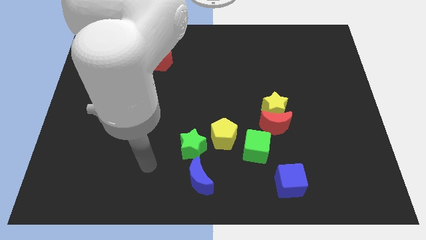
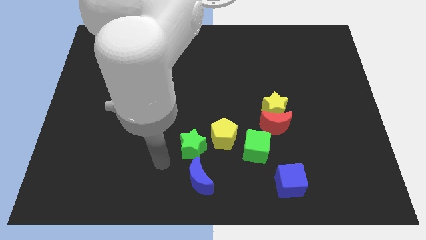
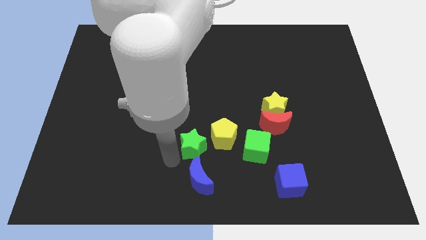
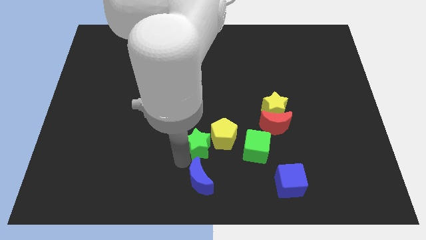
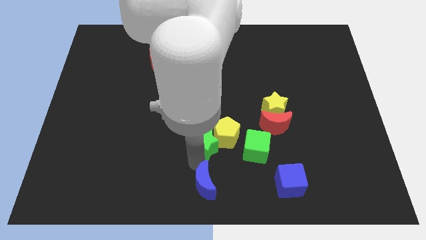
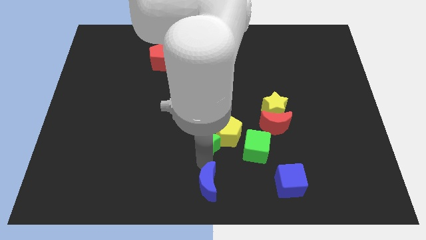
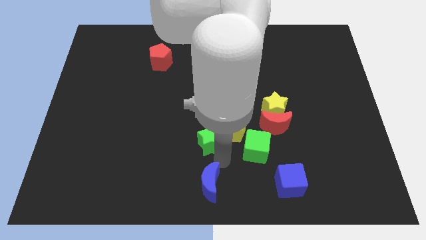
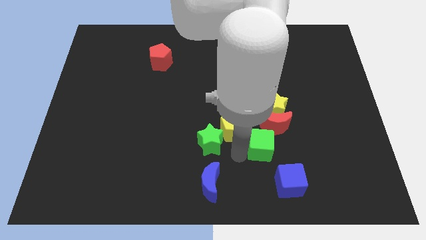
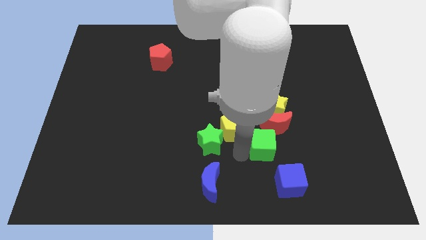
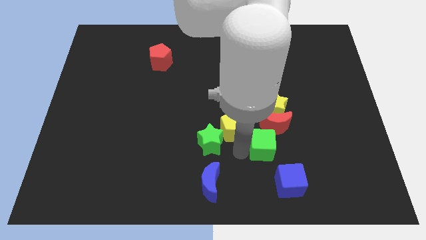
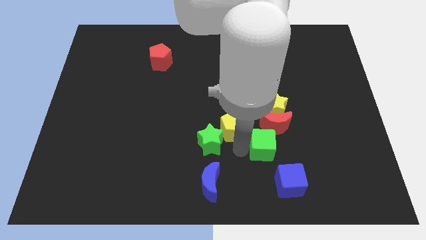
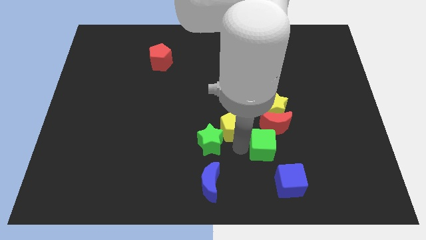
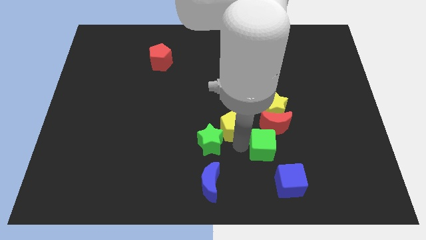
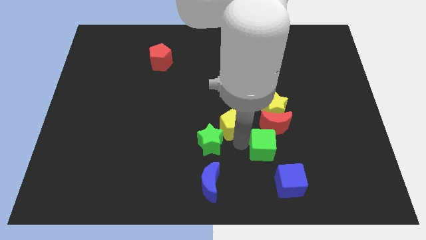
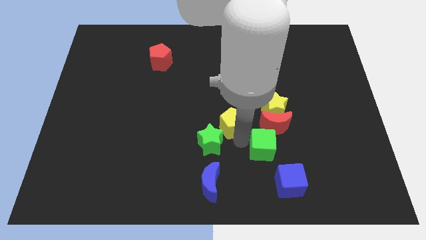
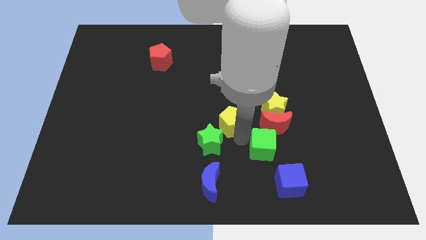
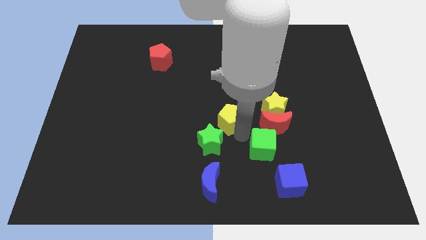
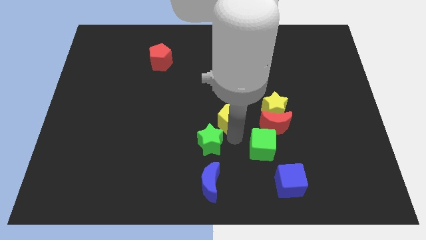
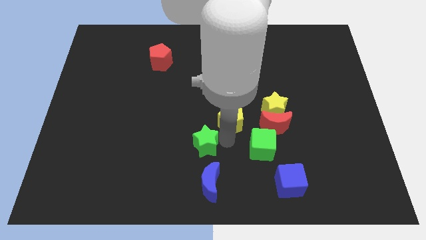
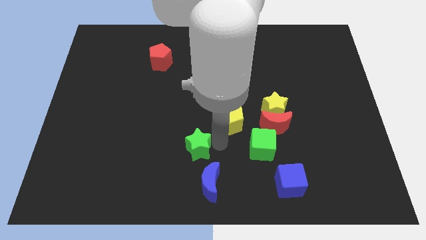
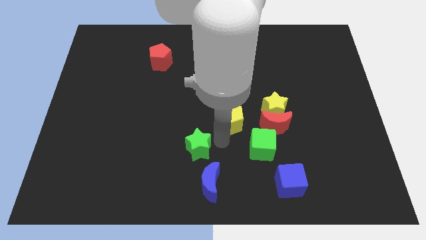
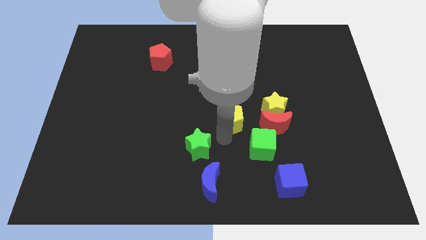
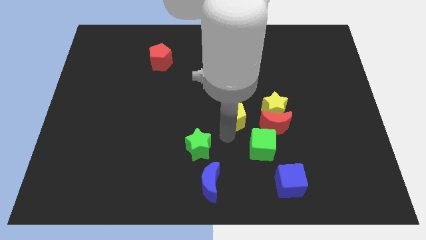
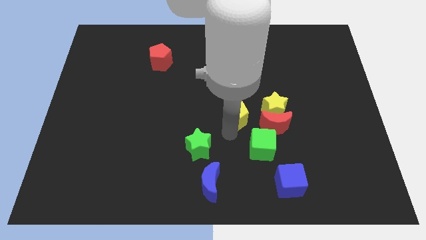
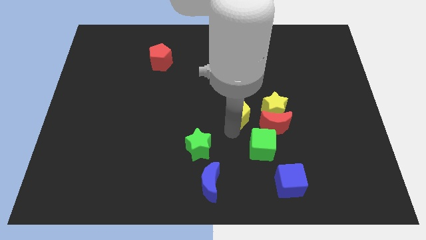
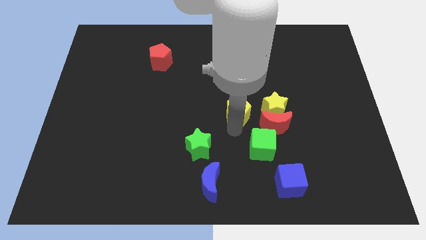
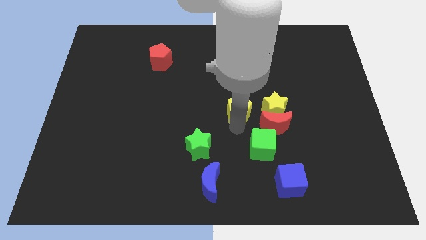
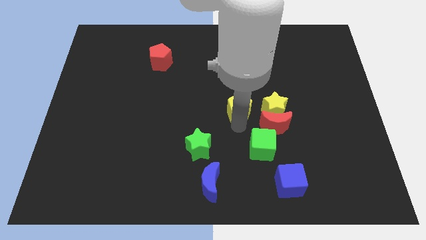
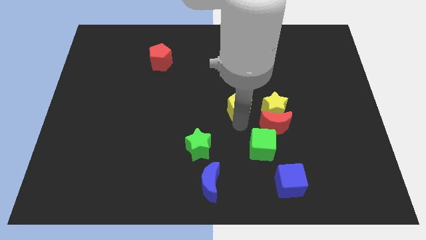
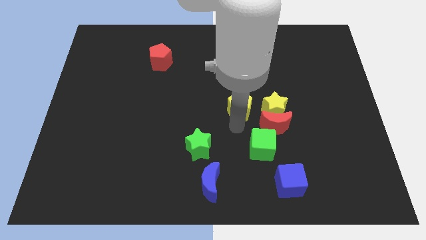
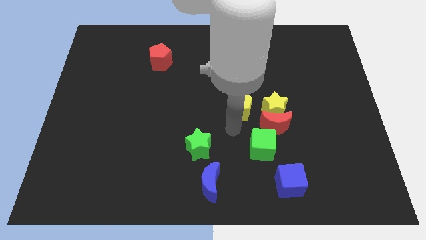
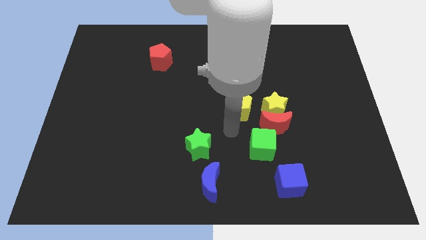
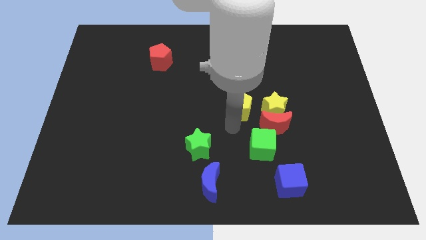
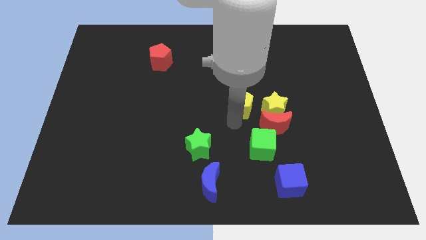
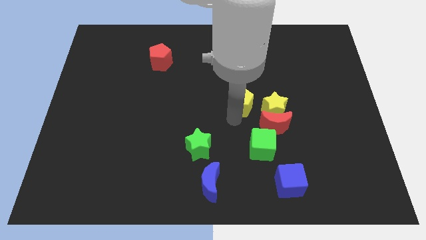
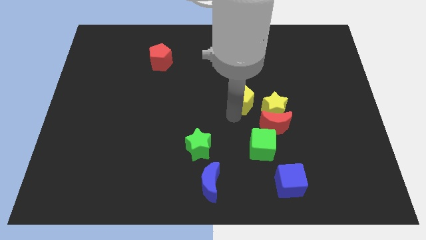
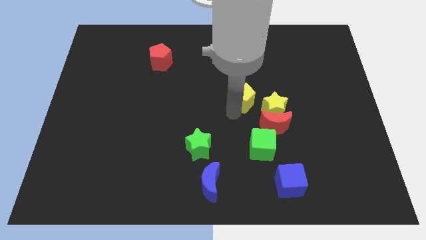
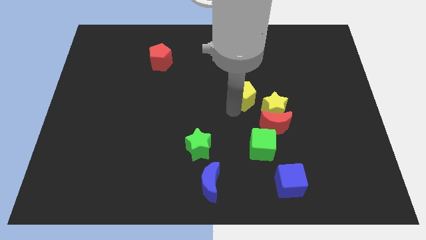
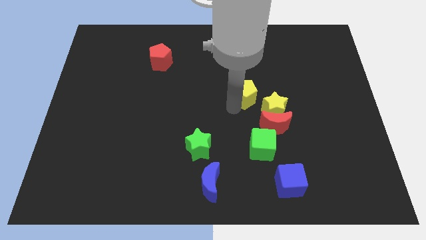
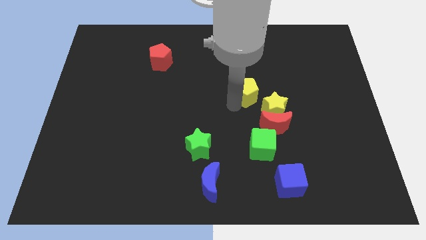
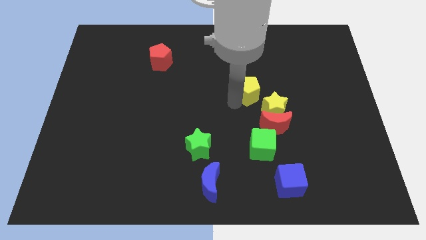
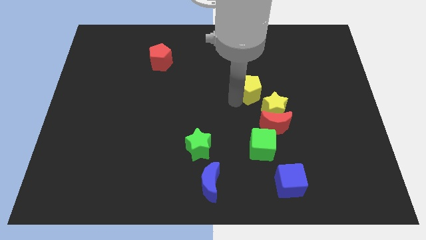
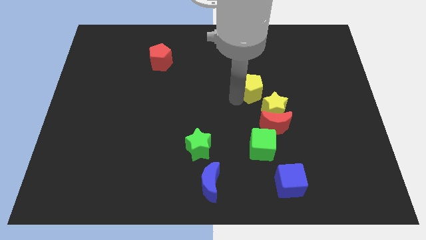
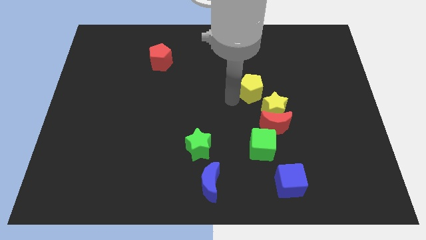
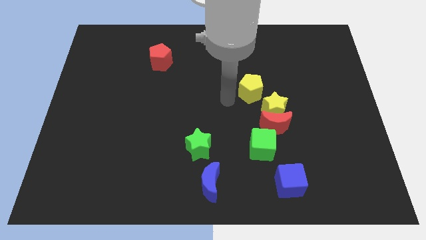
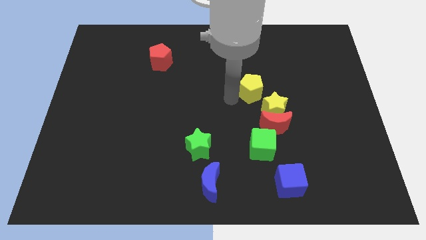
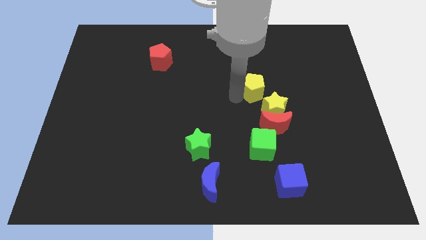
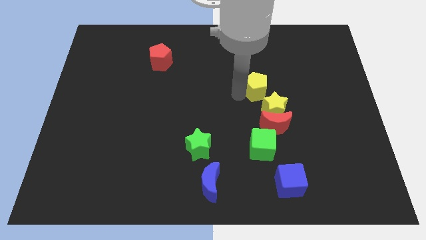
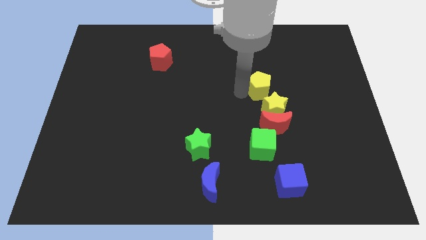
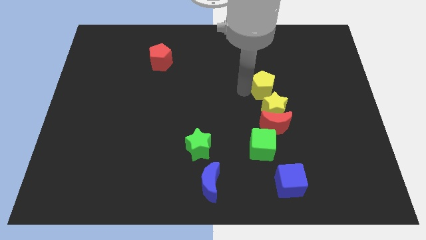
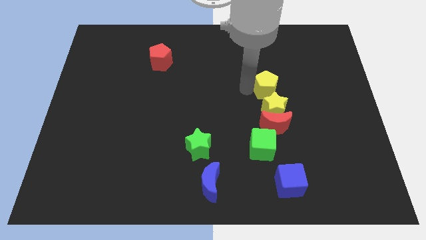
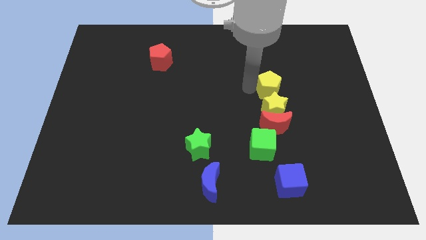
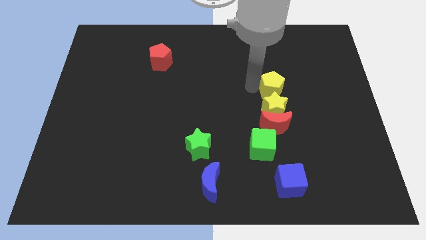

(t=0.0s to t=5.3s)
put the yellow pentagon diagonally up and to the right of the yellow star

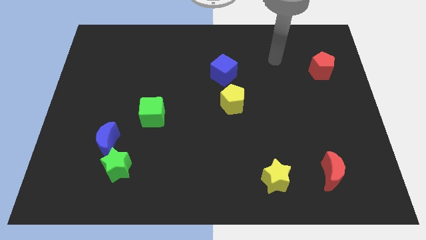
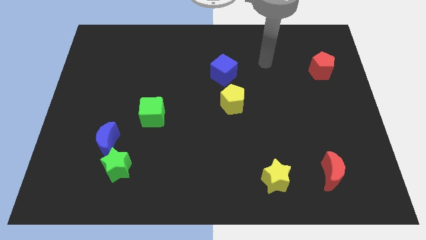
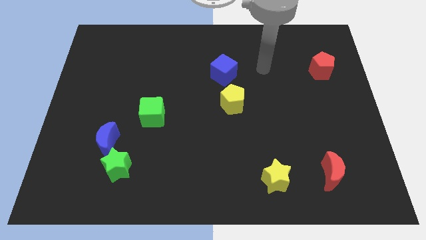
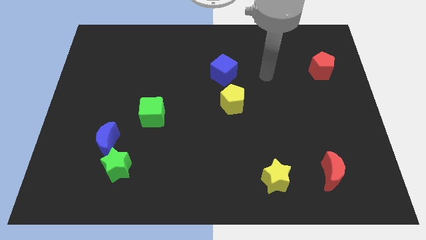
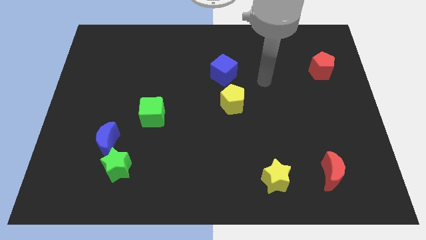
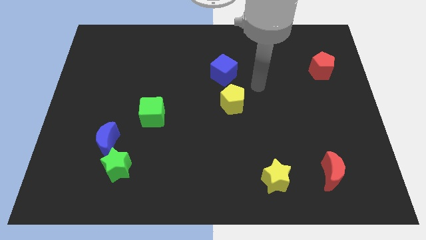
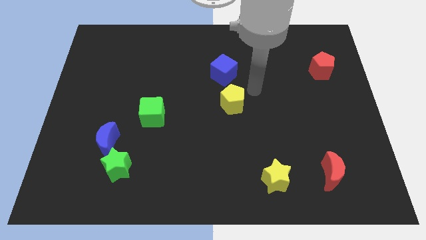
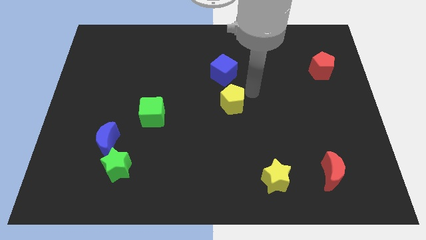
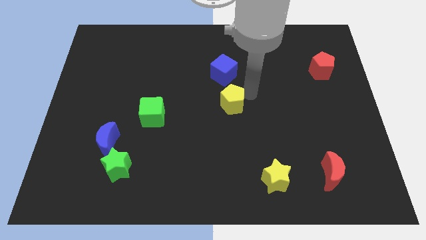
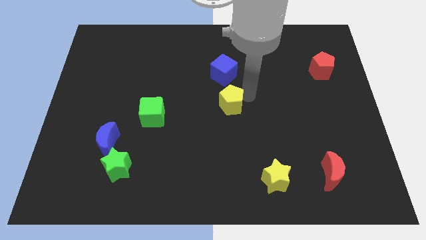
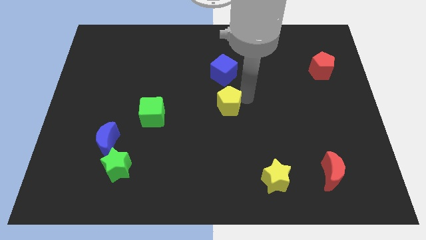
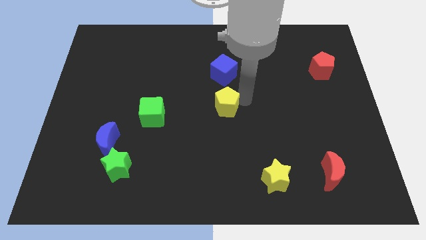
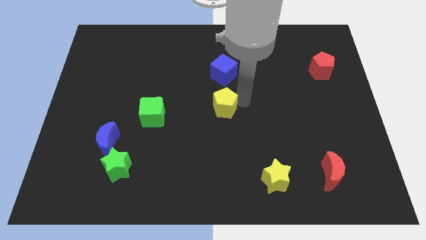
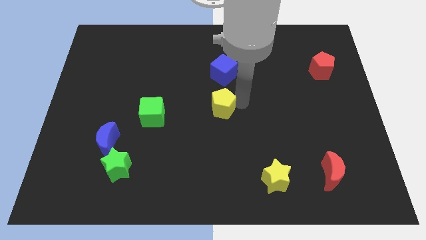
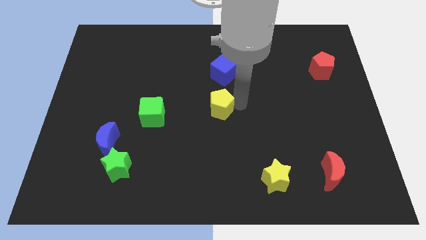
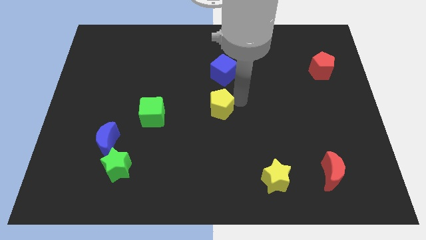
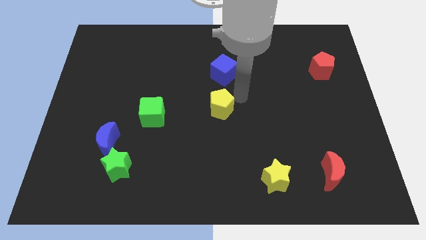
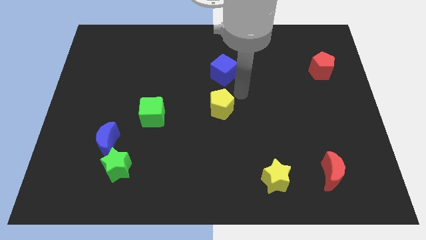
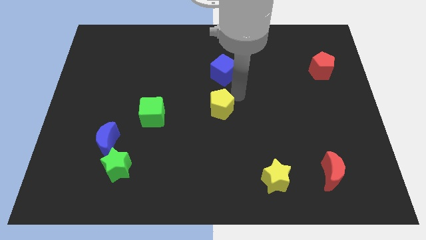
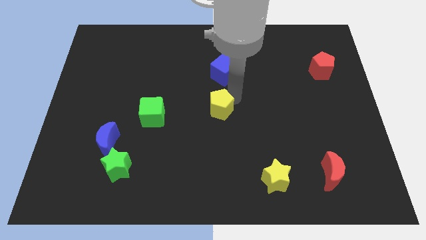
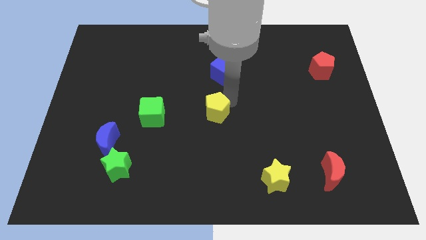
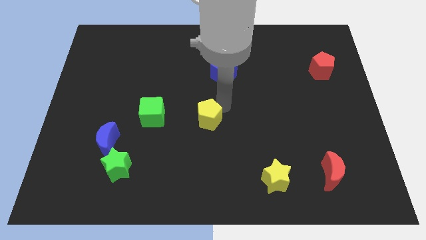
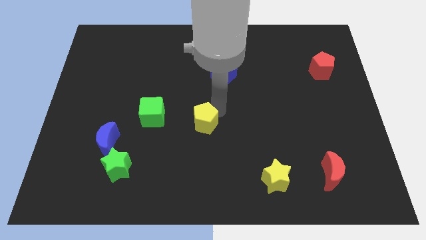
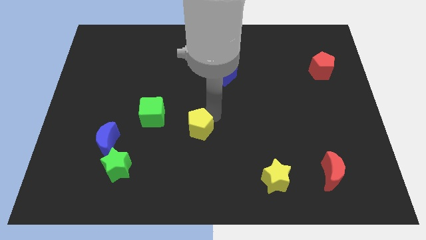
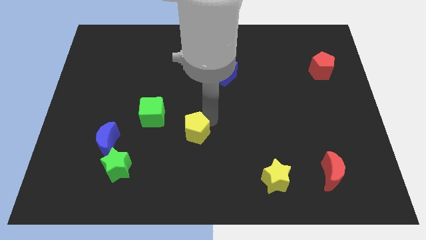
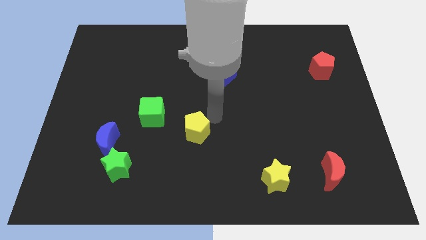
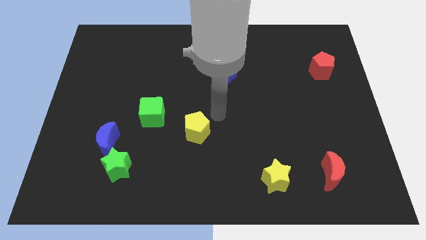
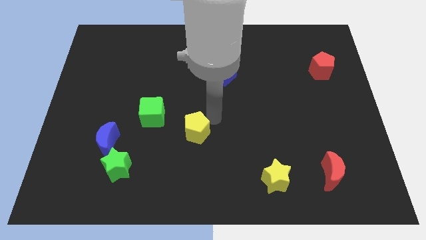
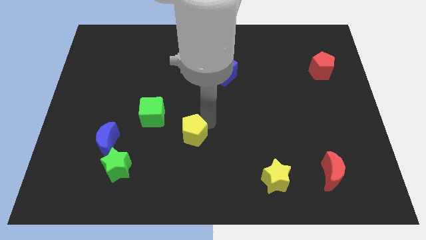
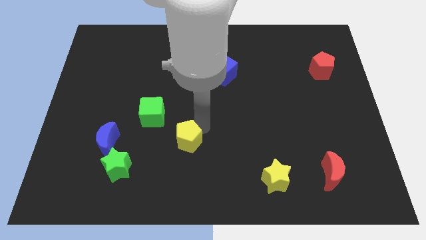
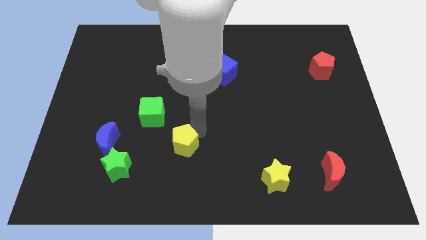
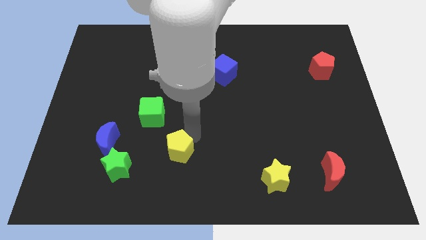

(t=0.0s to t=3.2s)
slide the yellow pentagon to the right of the green star

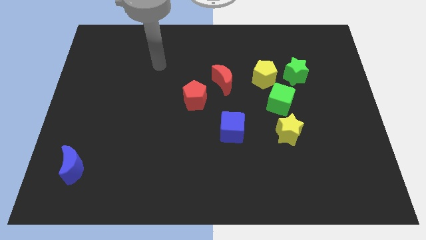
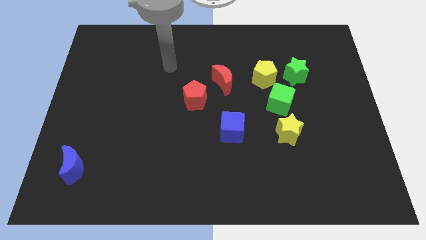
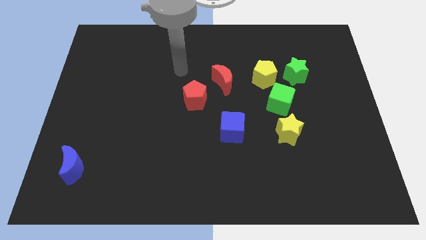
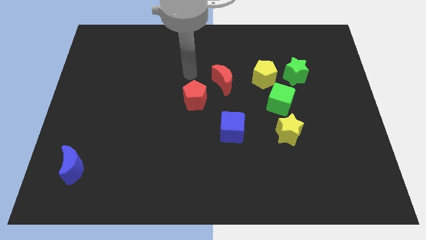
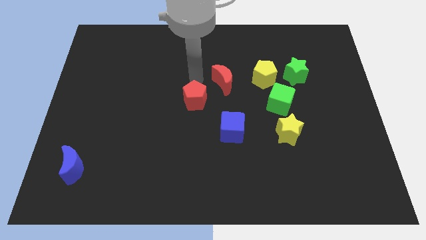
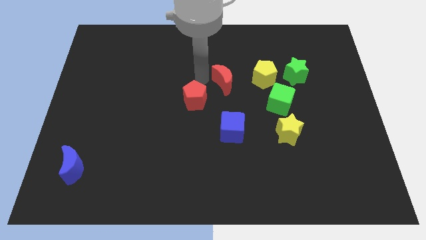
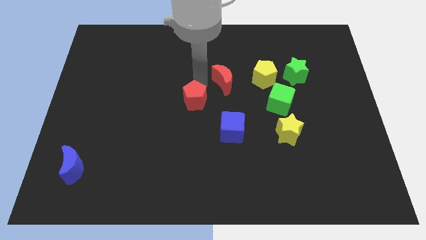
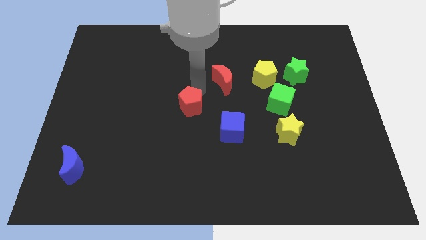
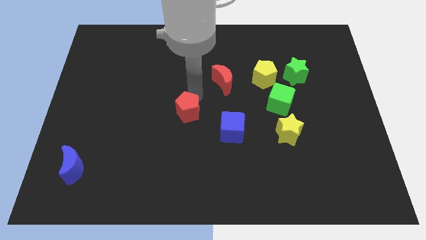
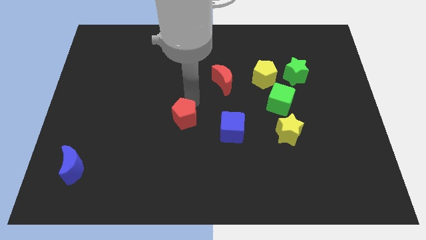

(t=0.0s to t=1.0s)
move the red pentagon left of the blue cube
